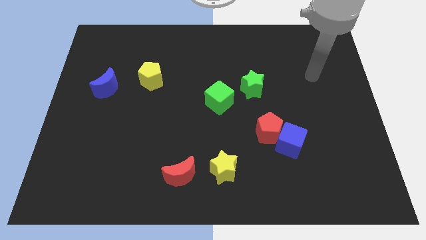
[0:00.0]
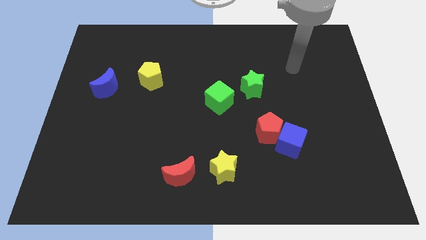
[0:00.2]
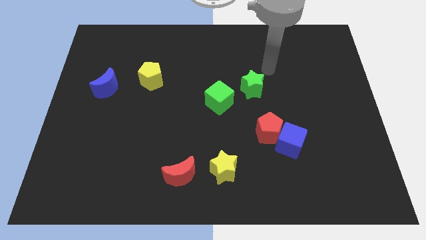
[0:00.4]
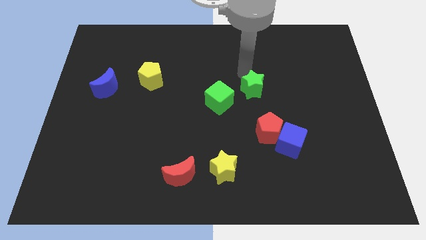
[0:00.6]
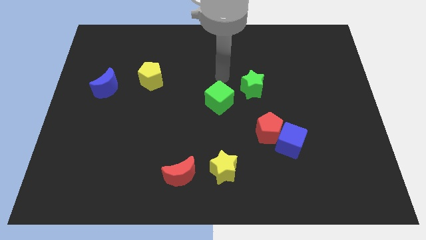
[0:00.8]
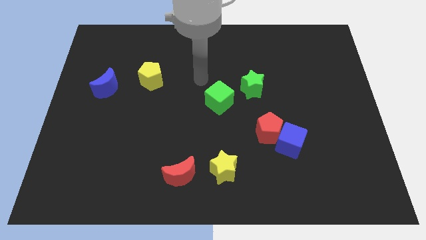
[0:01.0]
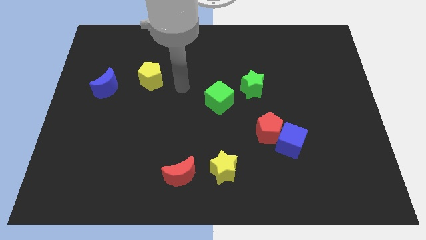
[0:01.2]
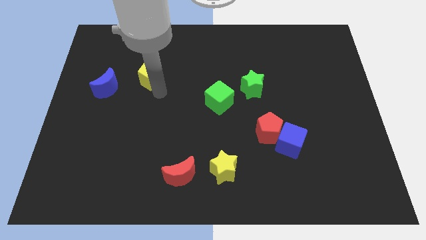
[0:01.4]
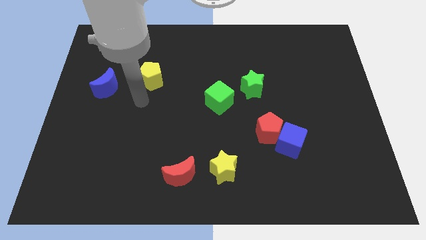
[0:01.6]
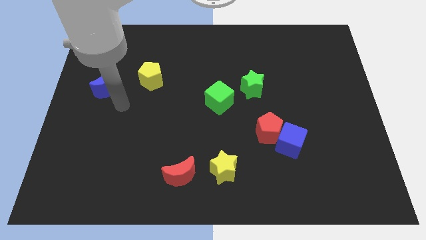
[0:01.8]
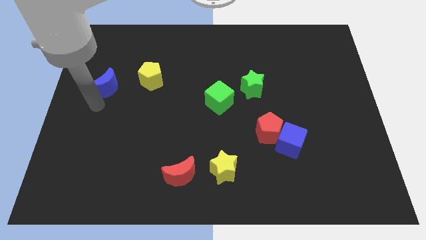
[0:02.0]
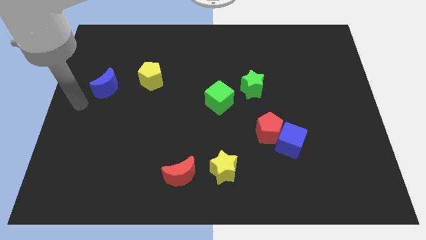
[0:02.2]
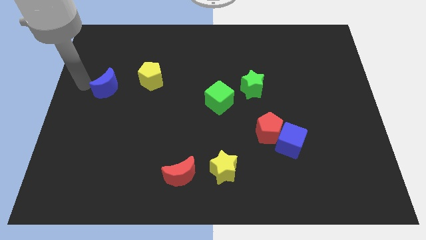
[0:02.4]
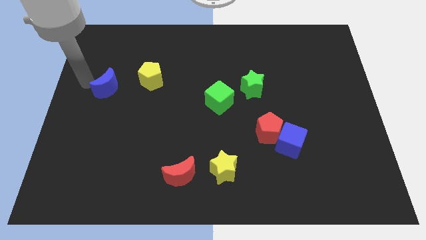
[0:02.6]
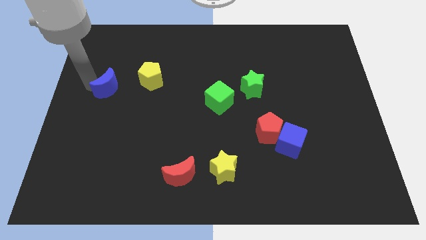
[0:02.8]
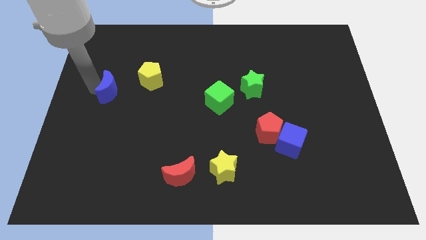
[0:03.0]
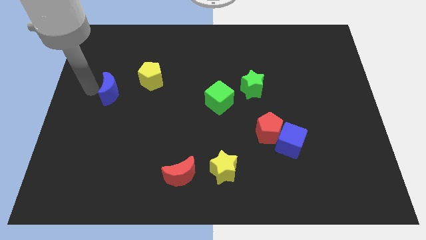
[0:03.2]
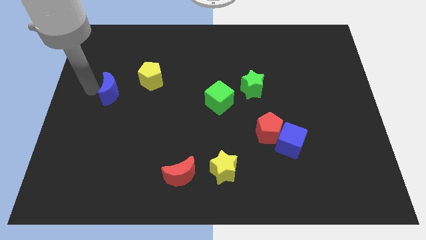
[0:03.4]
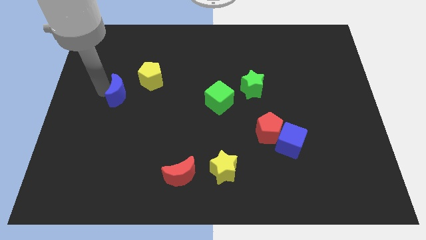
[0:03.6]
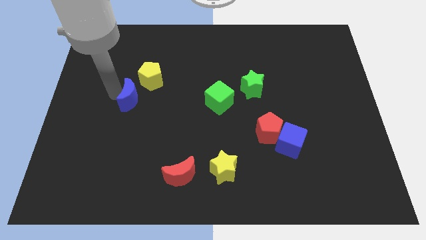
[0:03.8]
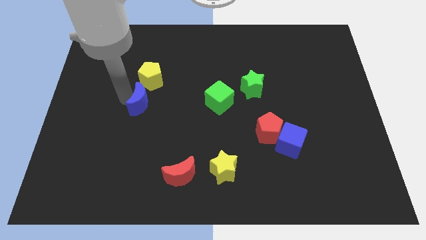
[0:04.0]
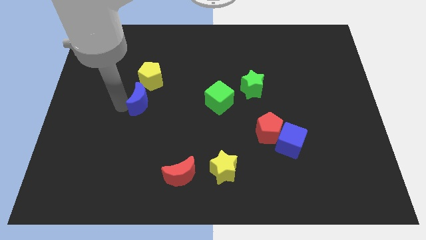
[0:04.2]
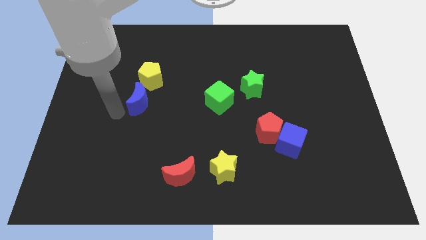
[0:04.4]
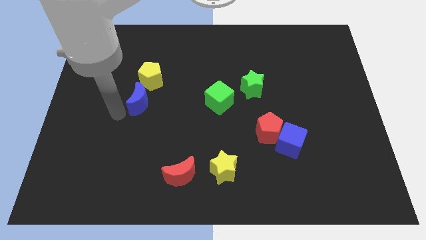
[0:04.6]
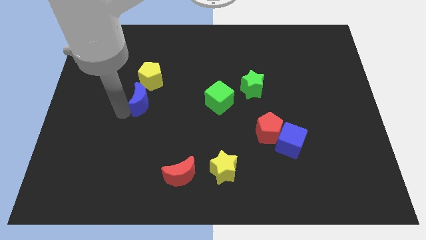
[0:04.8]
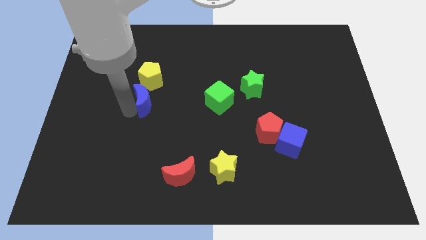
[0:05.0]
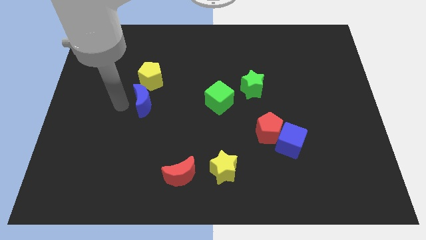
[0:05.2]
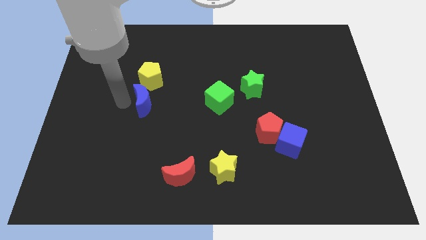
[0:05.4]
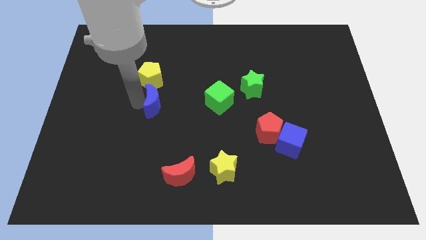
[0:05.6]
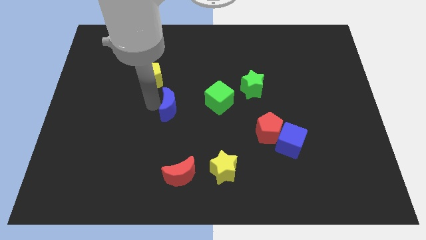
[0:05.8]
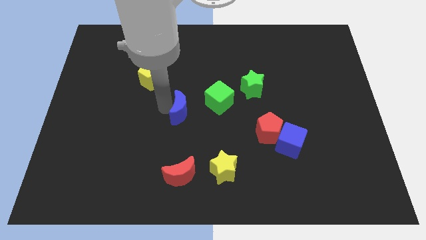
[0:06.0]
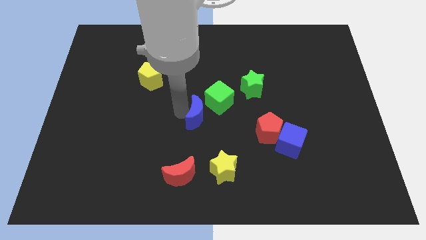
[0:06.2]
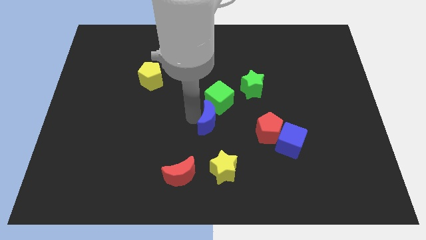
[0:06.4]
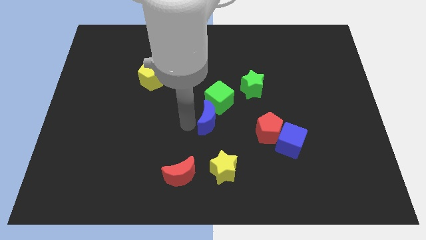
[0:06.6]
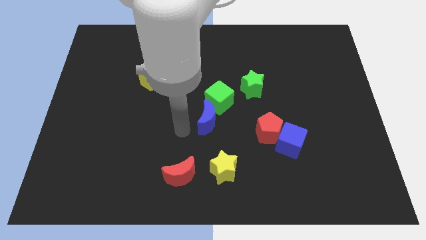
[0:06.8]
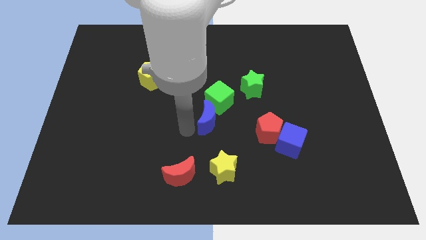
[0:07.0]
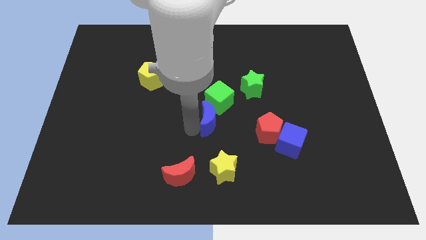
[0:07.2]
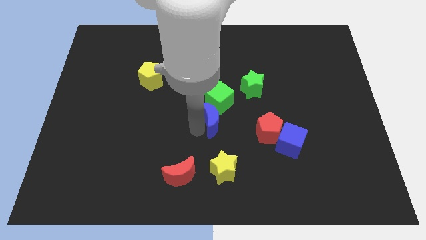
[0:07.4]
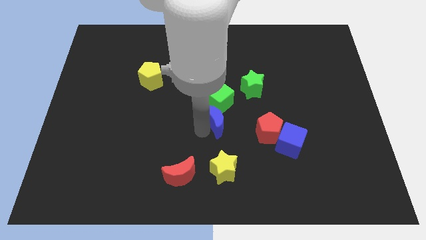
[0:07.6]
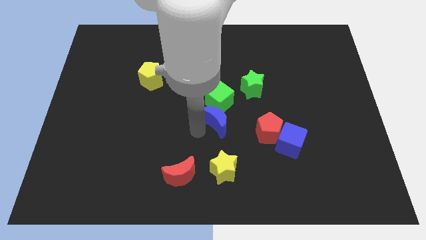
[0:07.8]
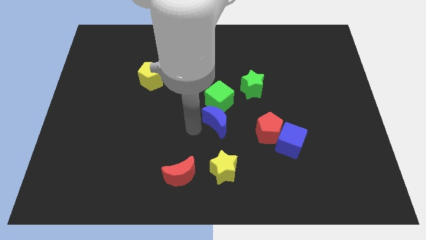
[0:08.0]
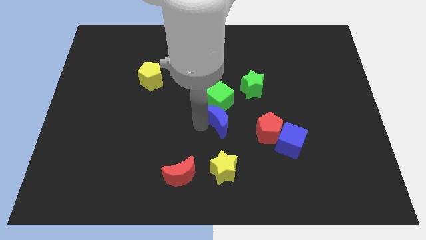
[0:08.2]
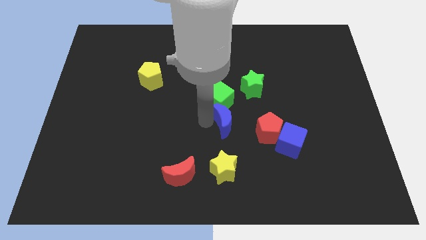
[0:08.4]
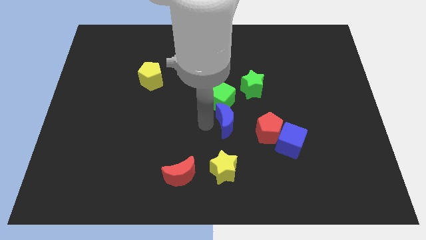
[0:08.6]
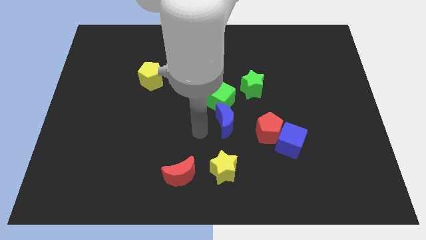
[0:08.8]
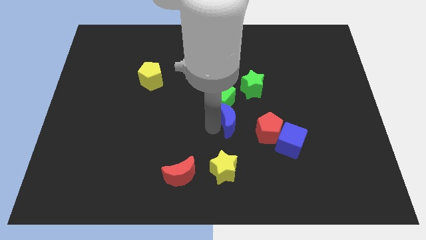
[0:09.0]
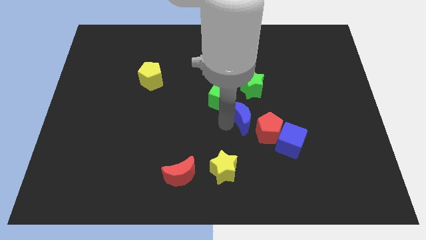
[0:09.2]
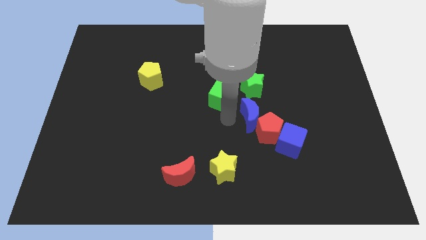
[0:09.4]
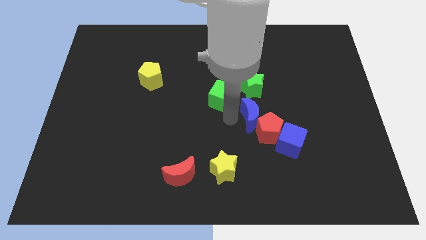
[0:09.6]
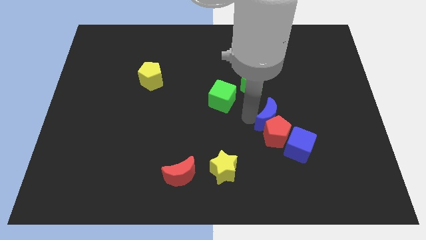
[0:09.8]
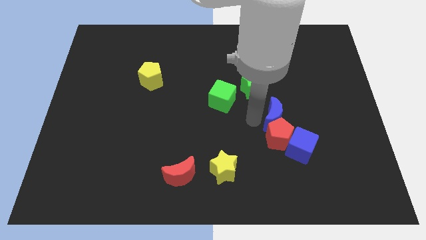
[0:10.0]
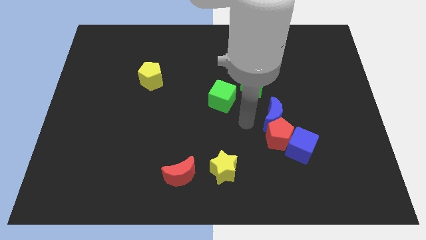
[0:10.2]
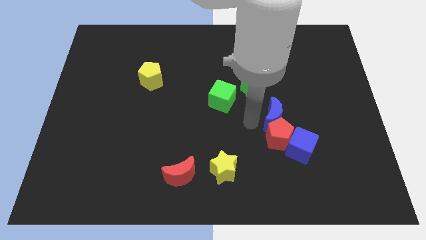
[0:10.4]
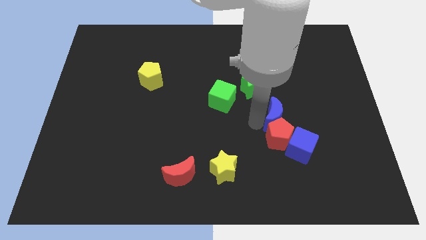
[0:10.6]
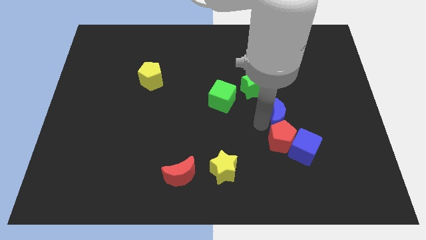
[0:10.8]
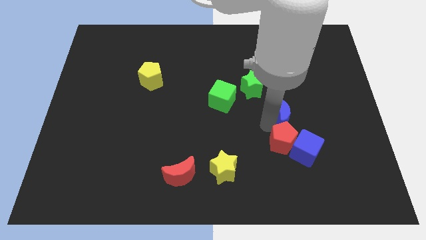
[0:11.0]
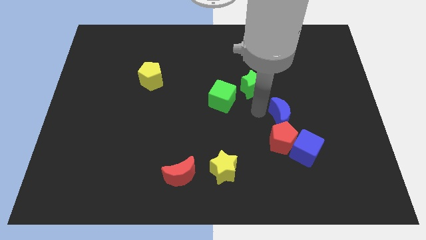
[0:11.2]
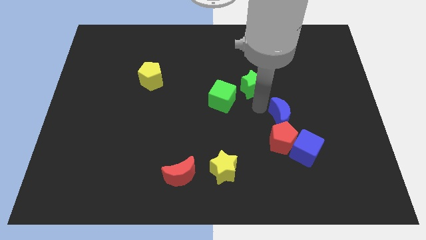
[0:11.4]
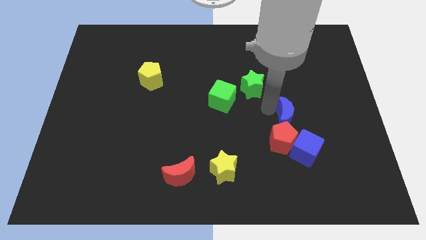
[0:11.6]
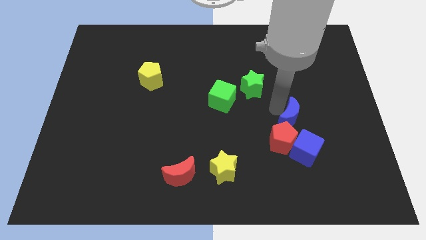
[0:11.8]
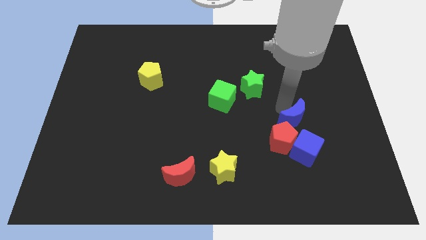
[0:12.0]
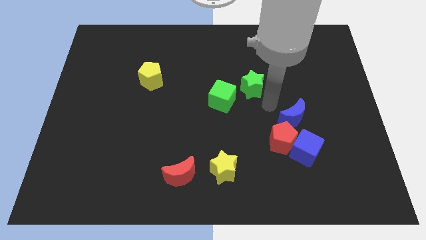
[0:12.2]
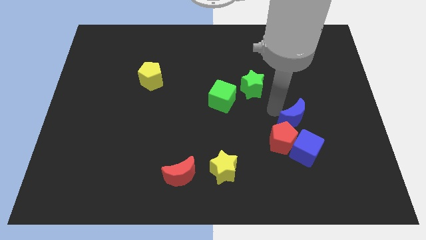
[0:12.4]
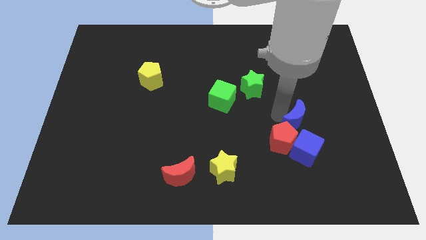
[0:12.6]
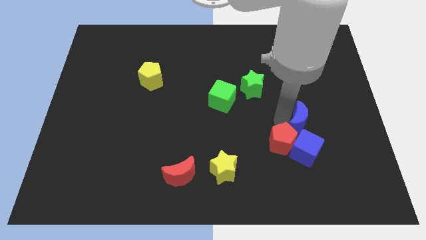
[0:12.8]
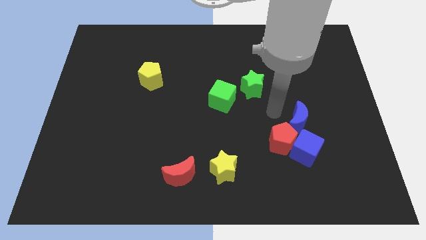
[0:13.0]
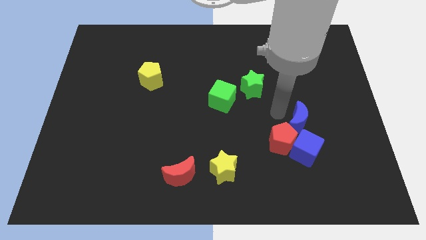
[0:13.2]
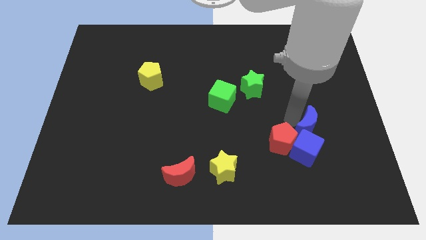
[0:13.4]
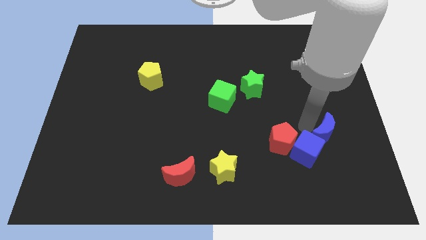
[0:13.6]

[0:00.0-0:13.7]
slide the blue moon right of the blue cube
